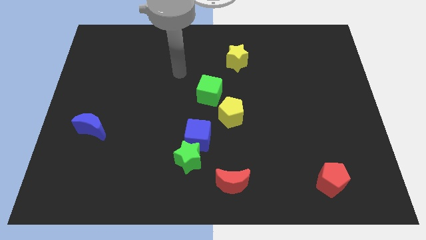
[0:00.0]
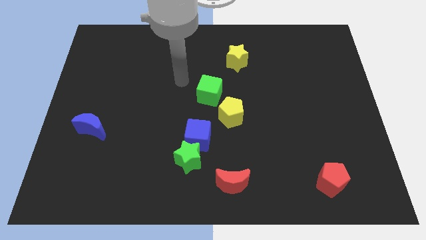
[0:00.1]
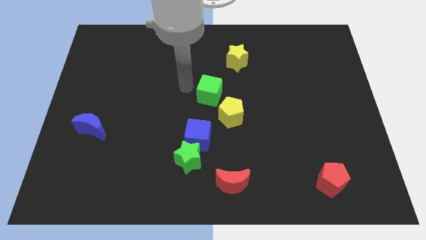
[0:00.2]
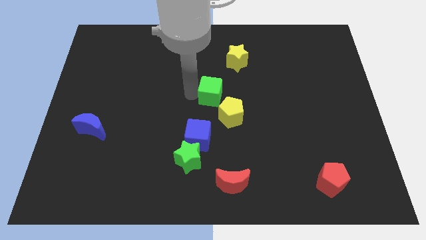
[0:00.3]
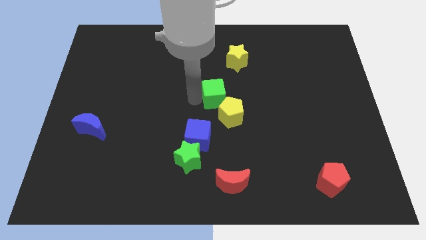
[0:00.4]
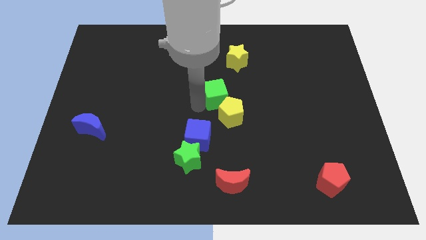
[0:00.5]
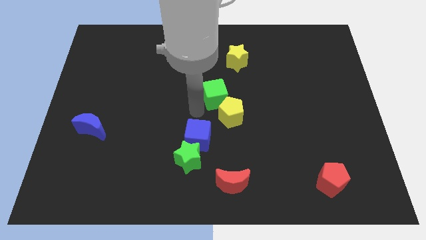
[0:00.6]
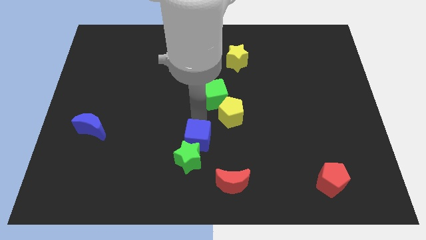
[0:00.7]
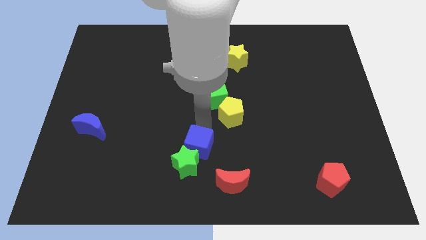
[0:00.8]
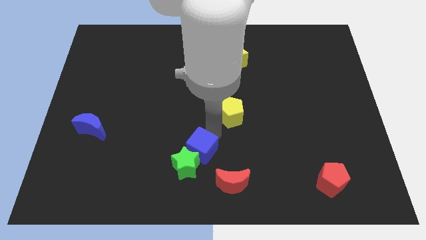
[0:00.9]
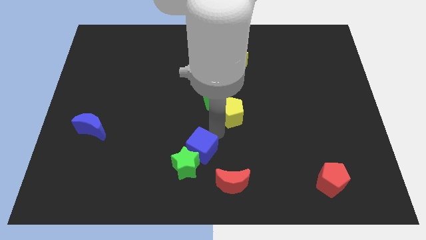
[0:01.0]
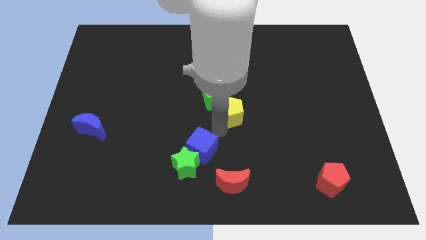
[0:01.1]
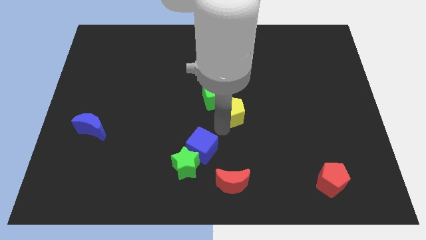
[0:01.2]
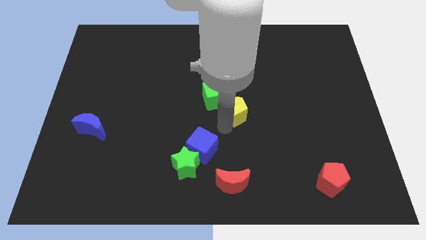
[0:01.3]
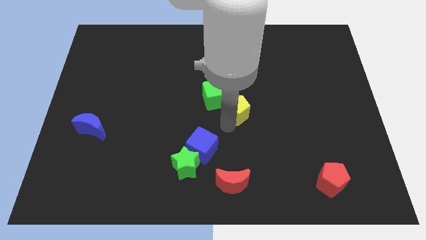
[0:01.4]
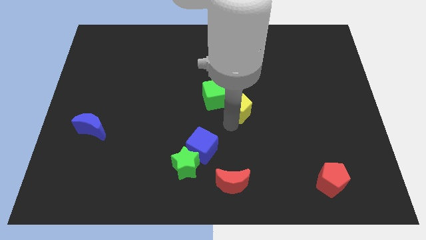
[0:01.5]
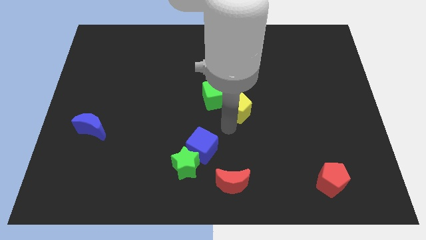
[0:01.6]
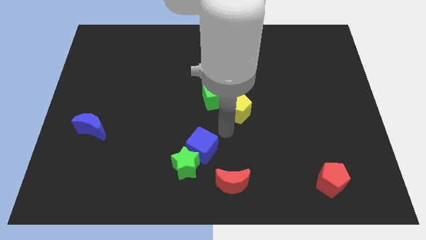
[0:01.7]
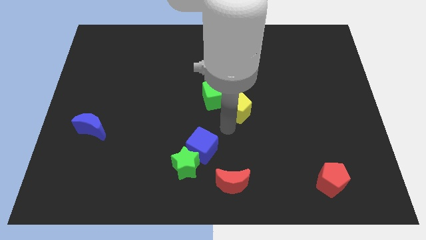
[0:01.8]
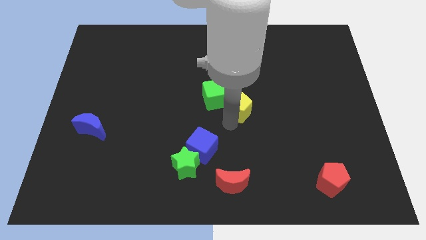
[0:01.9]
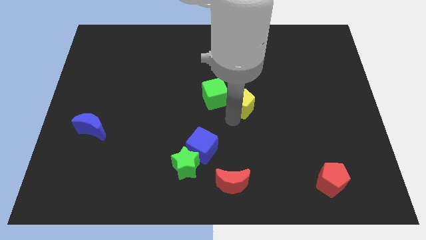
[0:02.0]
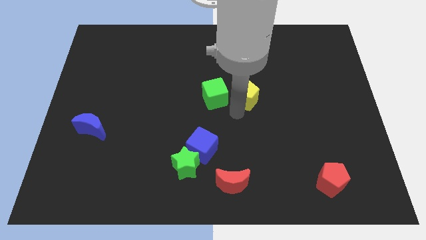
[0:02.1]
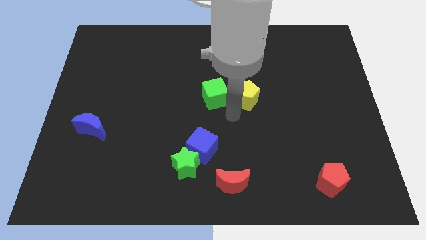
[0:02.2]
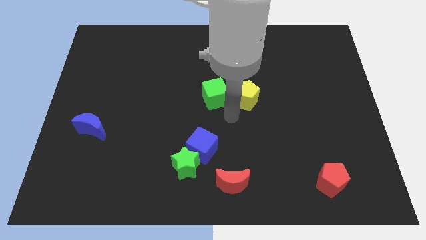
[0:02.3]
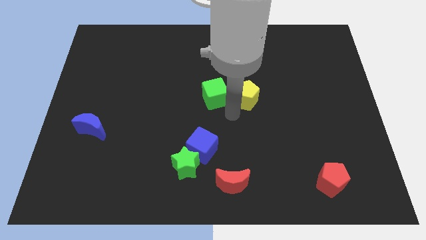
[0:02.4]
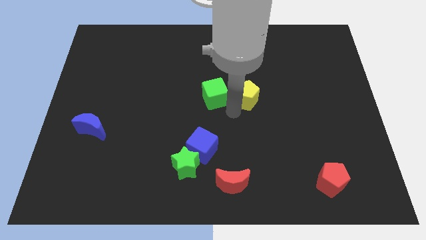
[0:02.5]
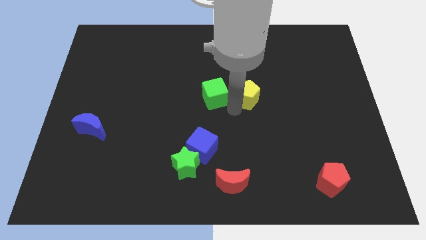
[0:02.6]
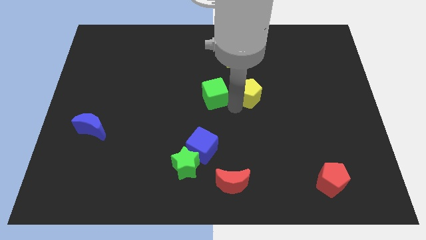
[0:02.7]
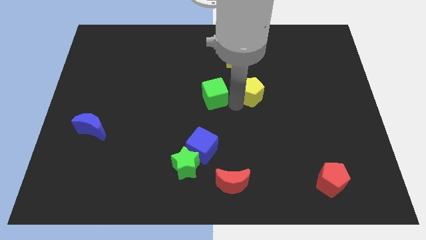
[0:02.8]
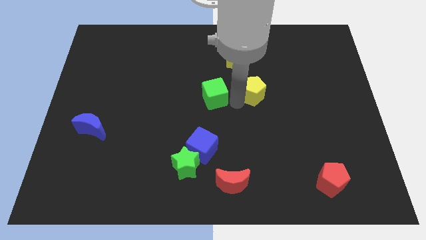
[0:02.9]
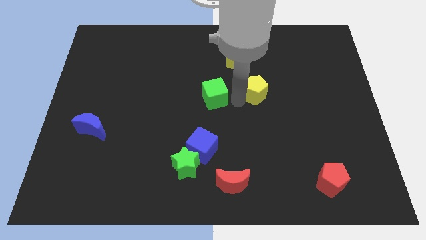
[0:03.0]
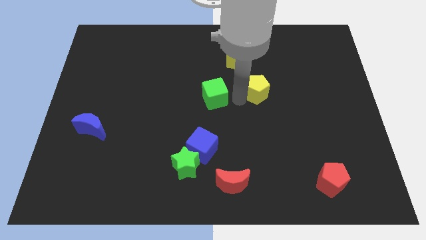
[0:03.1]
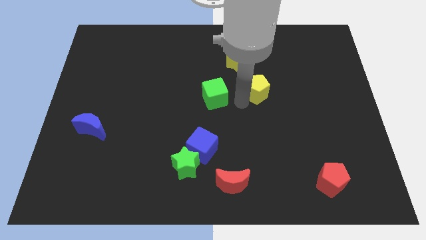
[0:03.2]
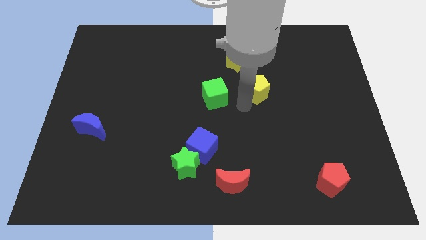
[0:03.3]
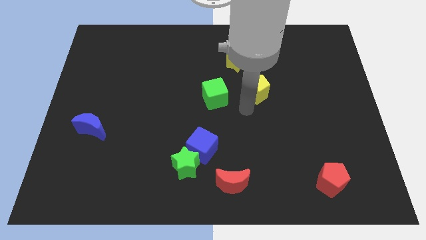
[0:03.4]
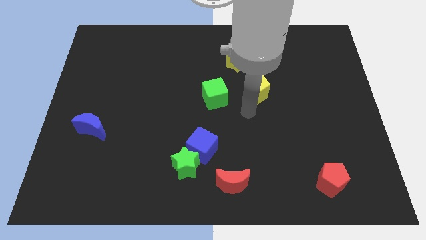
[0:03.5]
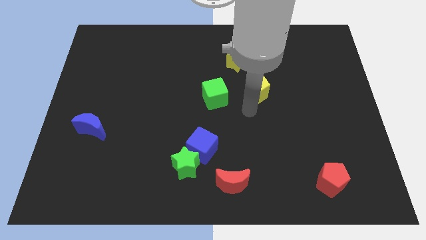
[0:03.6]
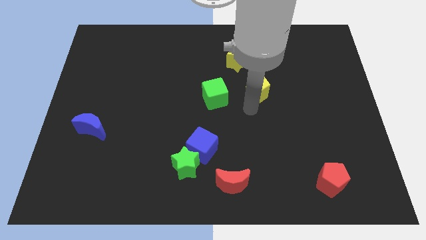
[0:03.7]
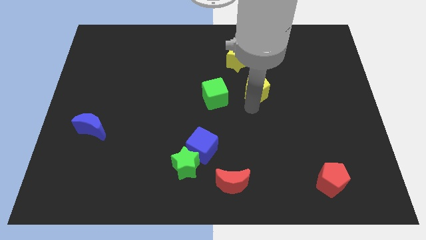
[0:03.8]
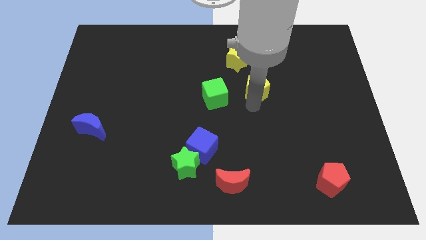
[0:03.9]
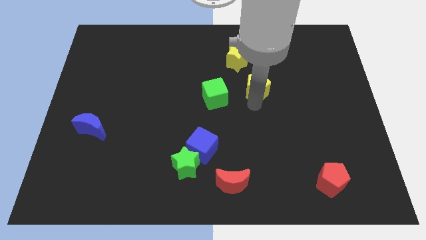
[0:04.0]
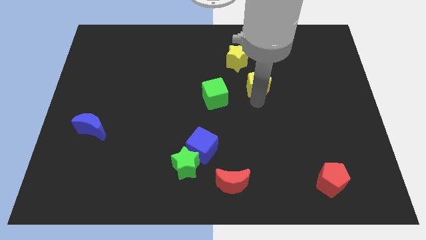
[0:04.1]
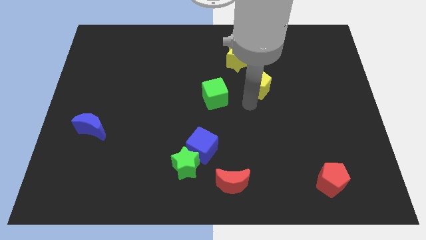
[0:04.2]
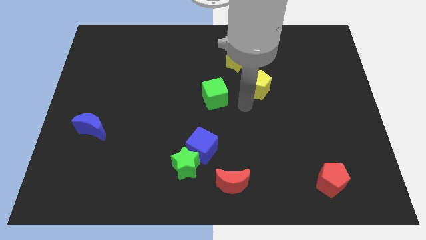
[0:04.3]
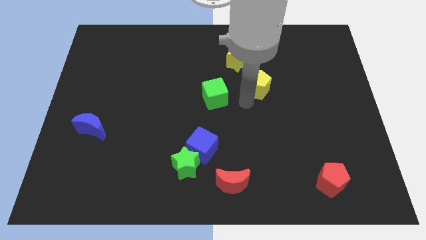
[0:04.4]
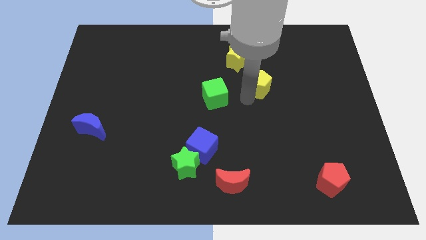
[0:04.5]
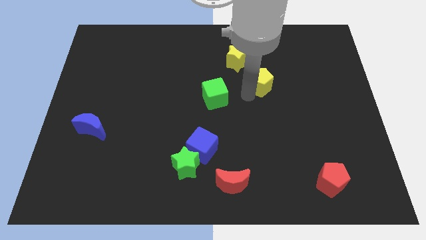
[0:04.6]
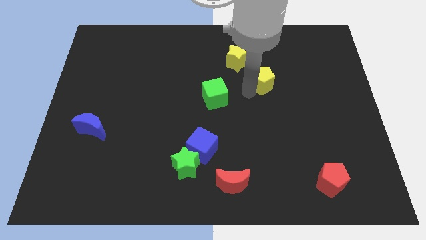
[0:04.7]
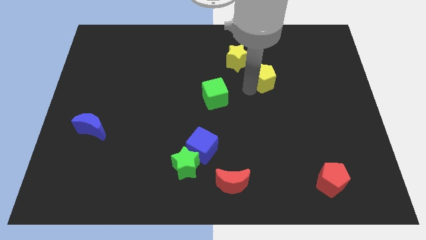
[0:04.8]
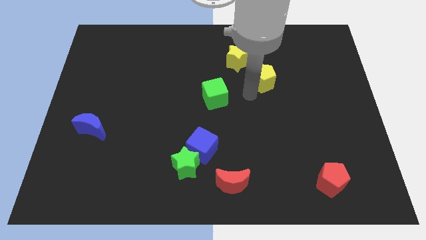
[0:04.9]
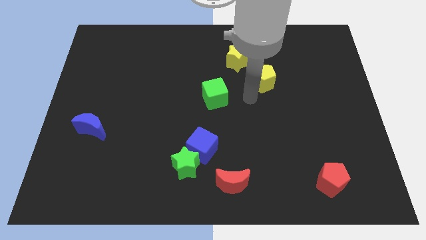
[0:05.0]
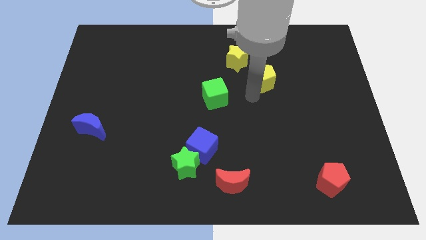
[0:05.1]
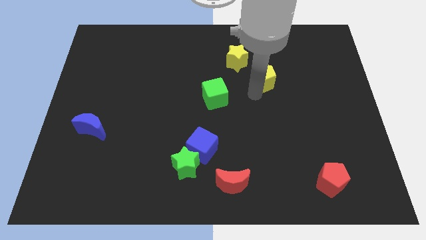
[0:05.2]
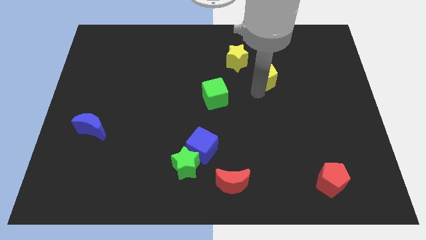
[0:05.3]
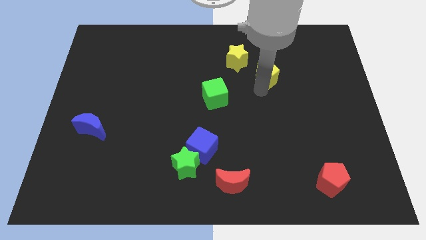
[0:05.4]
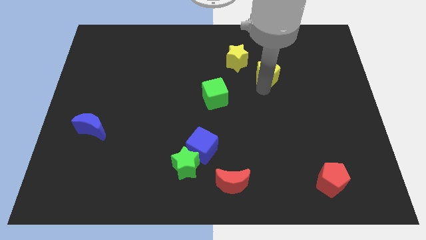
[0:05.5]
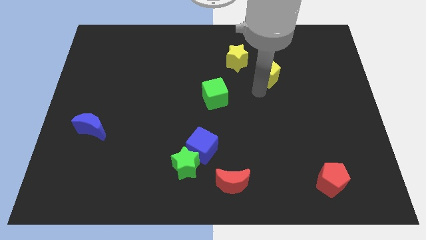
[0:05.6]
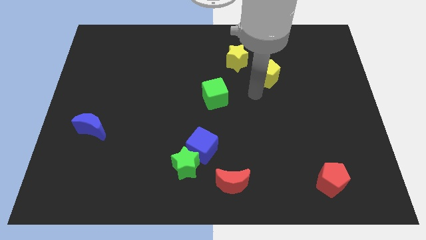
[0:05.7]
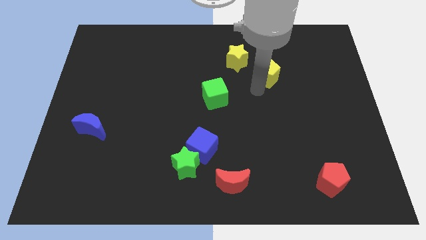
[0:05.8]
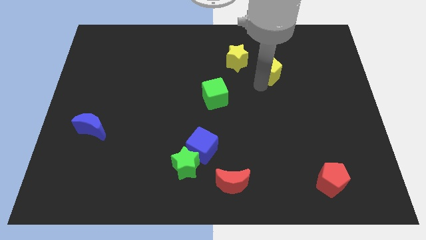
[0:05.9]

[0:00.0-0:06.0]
put the yellow pentagon to the right of the yellow star
